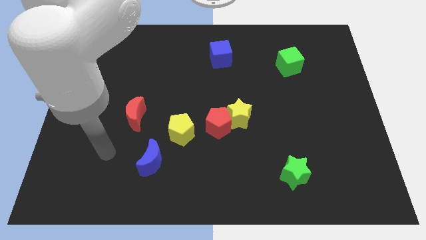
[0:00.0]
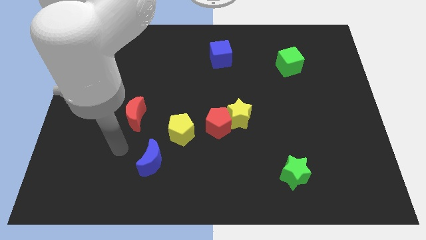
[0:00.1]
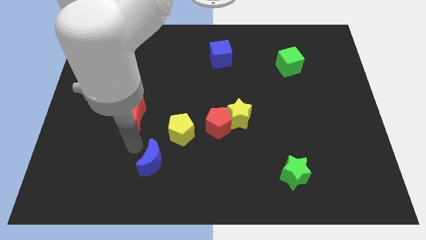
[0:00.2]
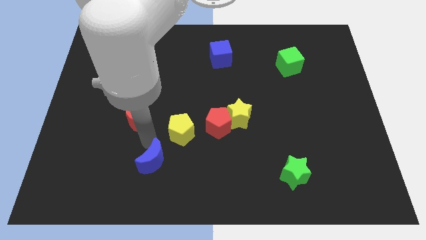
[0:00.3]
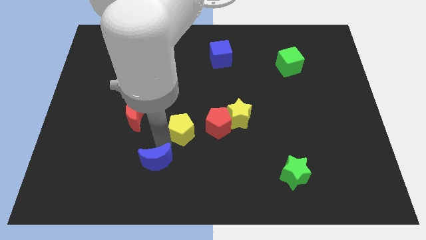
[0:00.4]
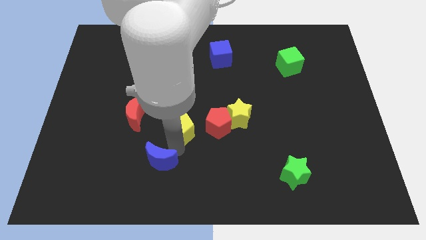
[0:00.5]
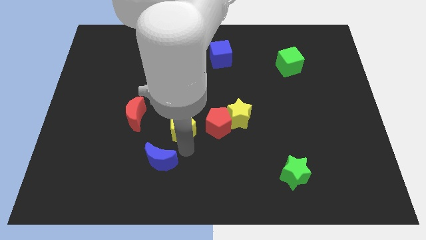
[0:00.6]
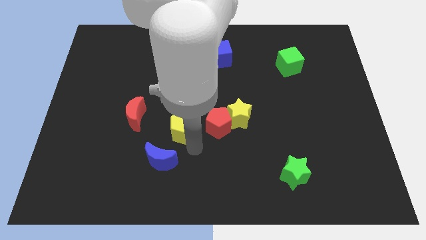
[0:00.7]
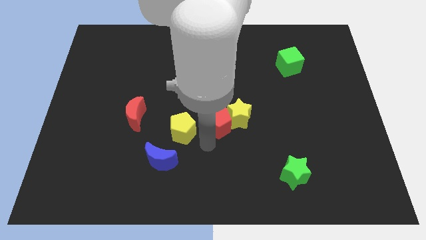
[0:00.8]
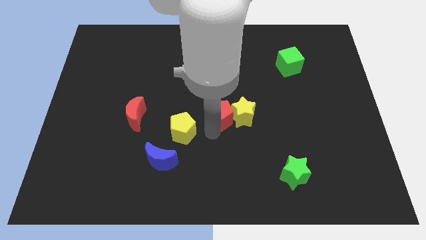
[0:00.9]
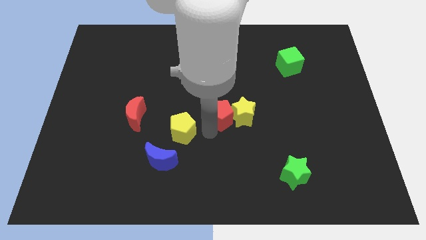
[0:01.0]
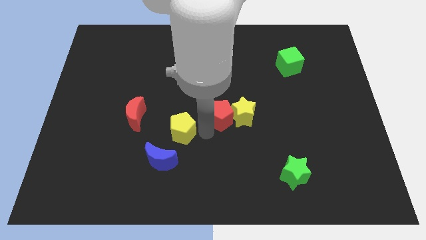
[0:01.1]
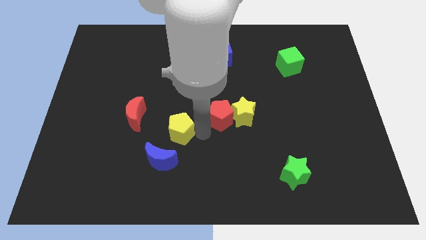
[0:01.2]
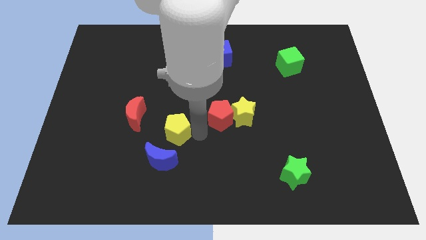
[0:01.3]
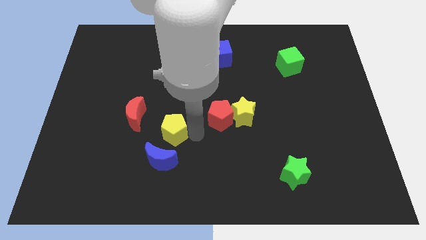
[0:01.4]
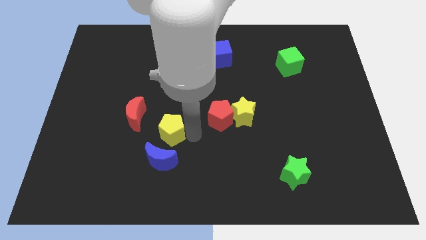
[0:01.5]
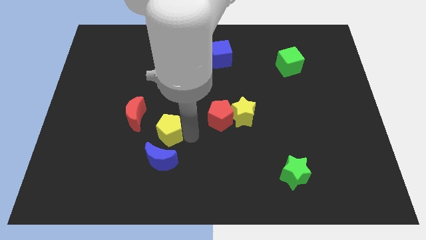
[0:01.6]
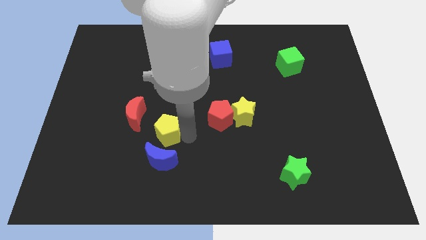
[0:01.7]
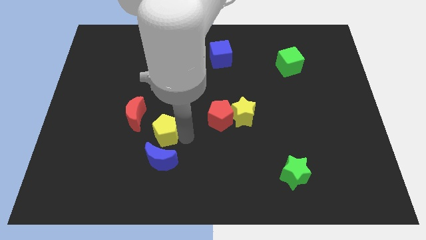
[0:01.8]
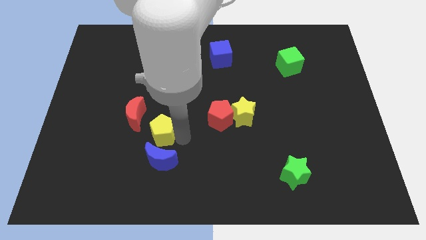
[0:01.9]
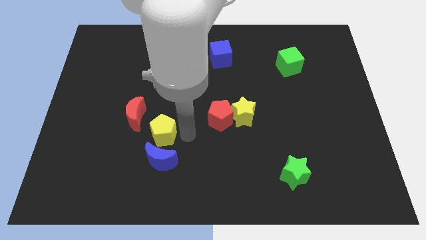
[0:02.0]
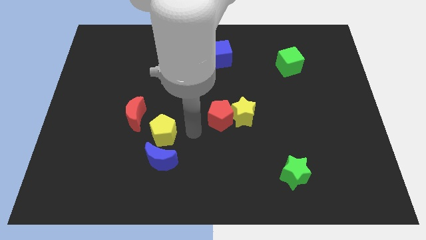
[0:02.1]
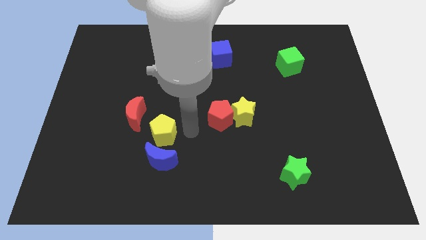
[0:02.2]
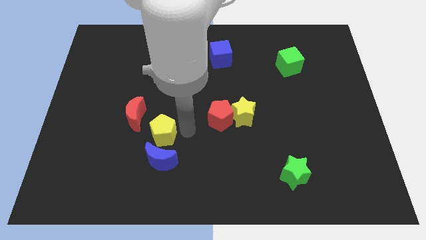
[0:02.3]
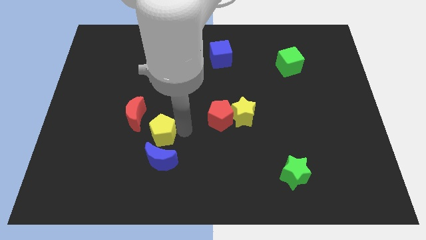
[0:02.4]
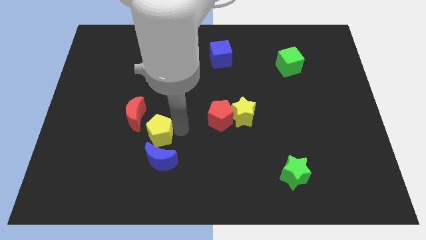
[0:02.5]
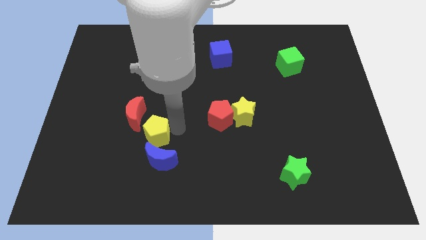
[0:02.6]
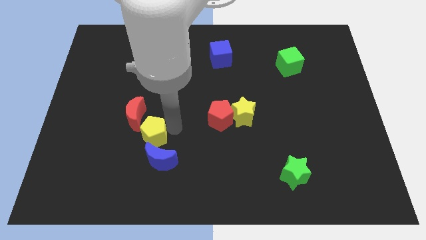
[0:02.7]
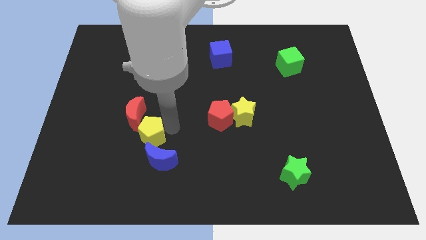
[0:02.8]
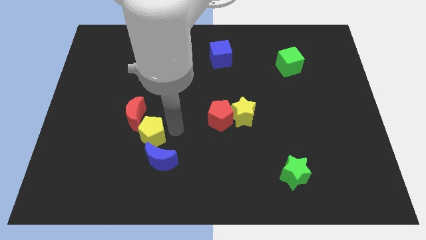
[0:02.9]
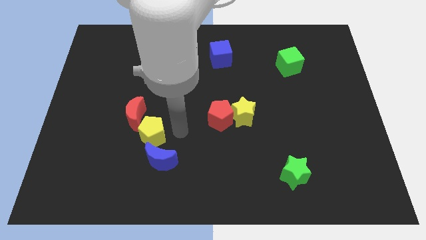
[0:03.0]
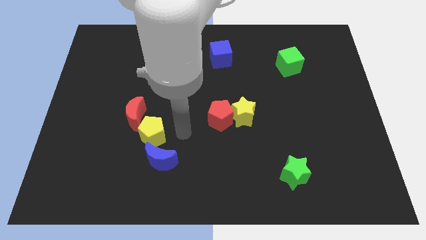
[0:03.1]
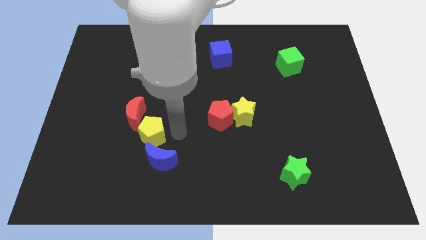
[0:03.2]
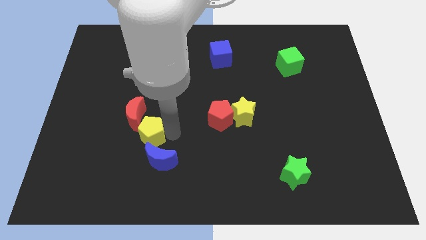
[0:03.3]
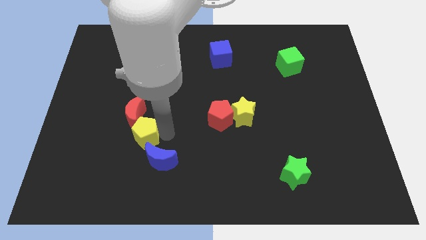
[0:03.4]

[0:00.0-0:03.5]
slightly move the yellow pentagon to the left

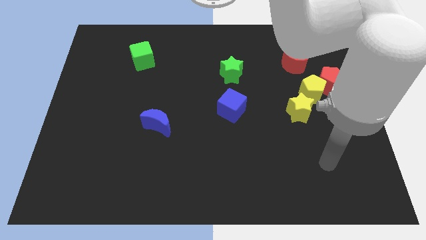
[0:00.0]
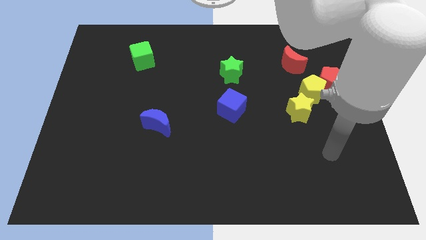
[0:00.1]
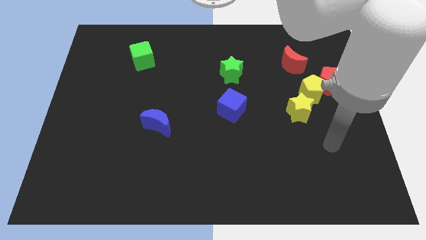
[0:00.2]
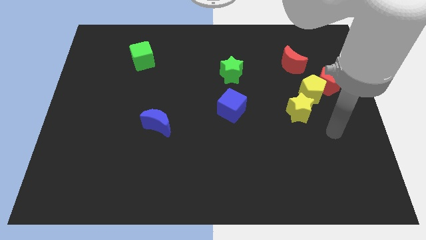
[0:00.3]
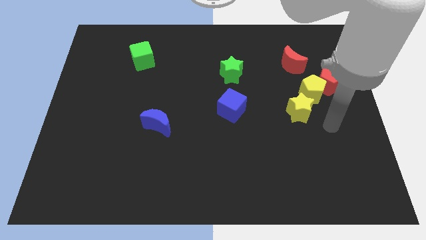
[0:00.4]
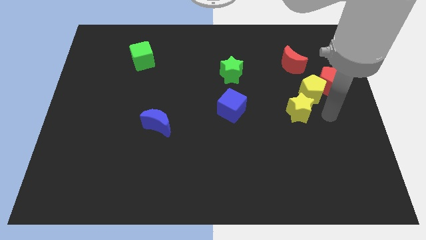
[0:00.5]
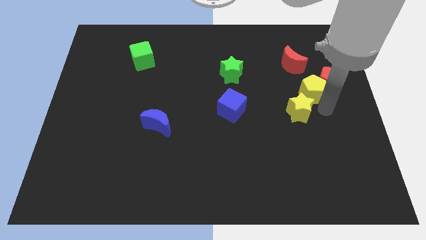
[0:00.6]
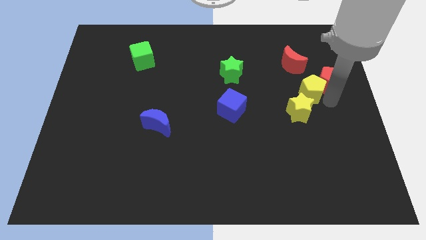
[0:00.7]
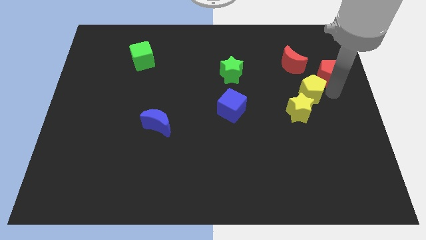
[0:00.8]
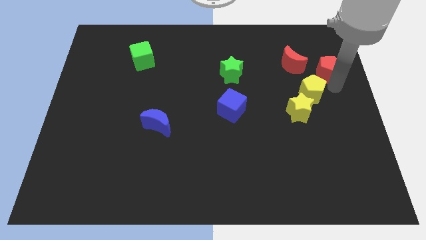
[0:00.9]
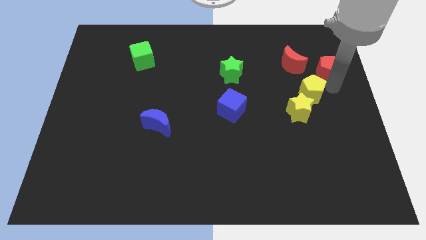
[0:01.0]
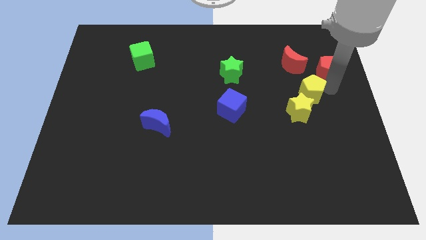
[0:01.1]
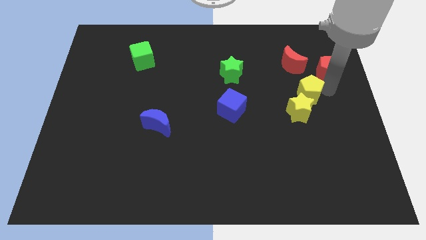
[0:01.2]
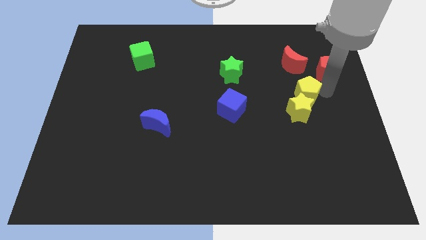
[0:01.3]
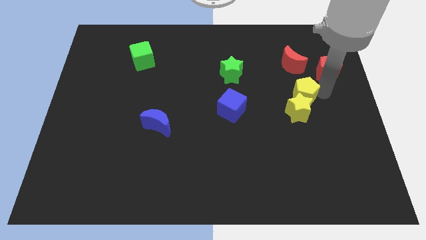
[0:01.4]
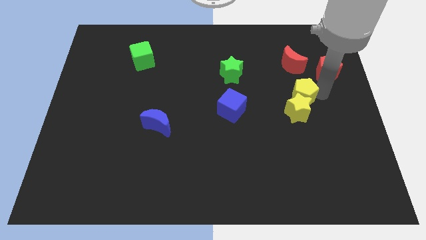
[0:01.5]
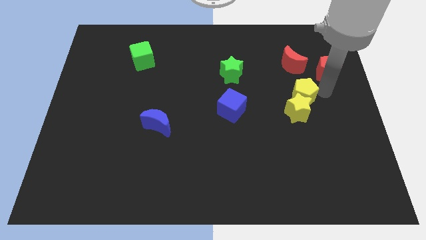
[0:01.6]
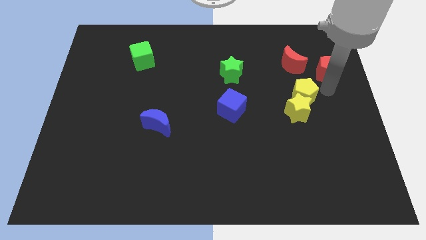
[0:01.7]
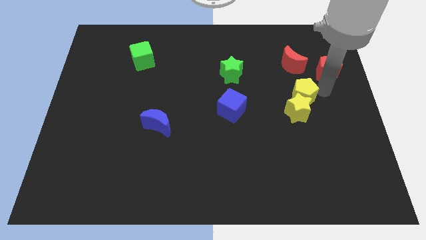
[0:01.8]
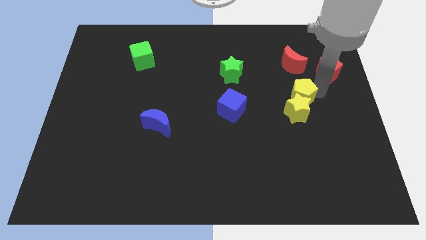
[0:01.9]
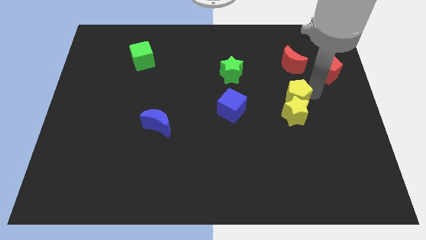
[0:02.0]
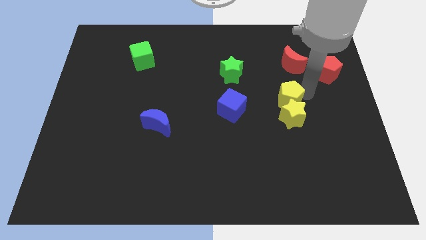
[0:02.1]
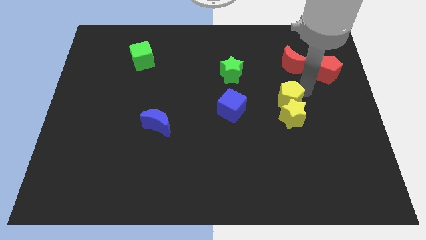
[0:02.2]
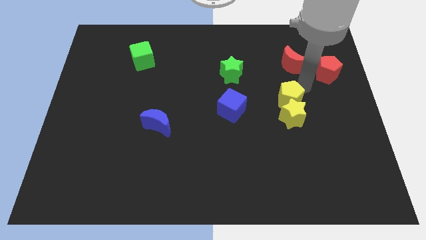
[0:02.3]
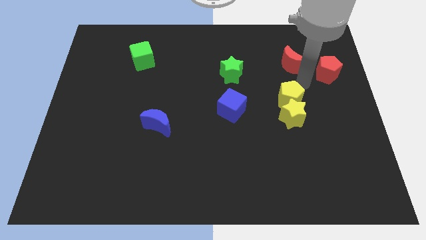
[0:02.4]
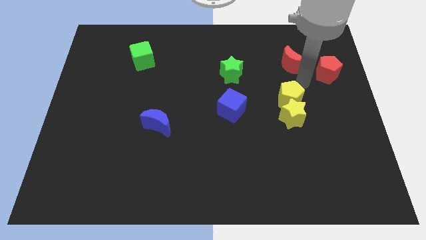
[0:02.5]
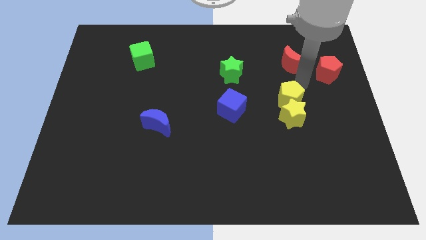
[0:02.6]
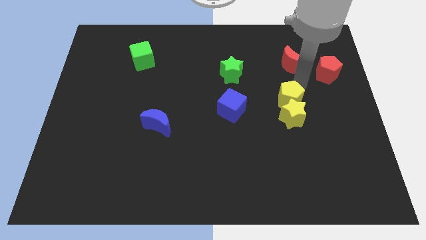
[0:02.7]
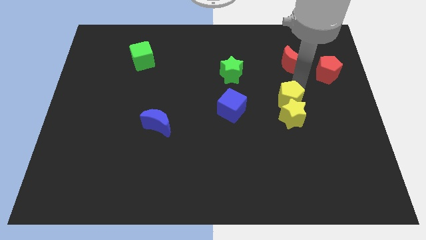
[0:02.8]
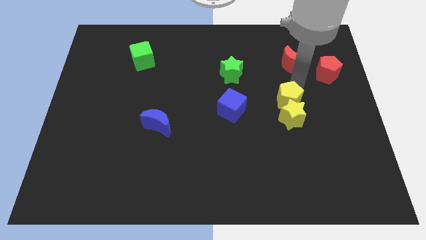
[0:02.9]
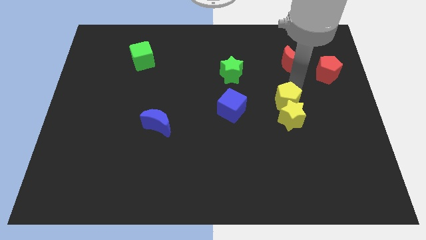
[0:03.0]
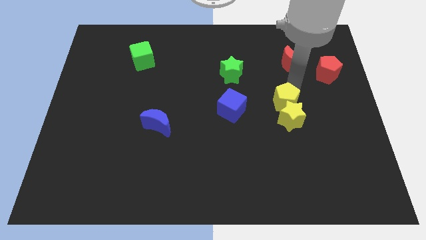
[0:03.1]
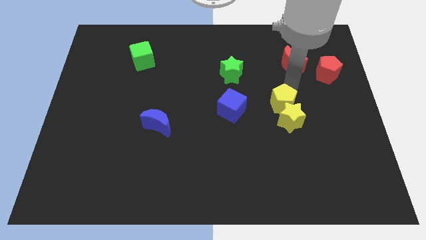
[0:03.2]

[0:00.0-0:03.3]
push the yellow pentagon downwards and left diagonally slightly

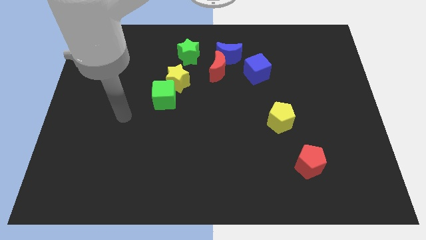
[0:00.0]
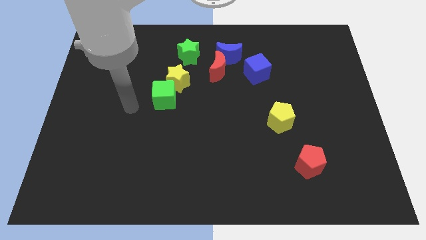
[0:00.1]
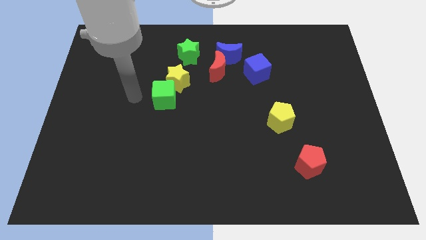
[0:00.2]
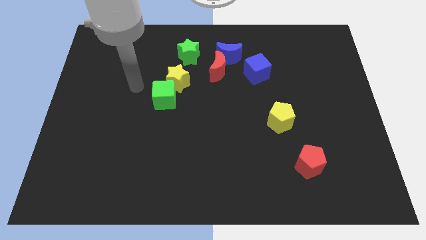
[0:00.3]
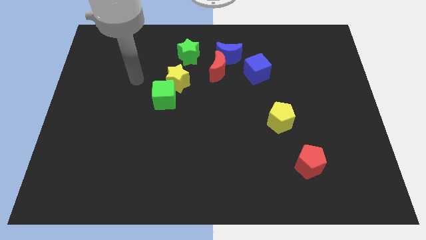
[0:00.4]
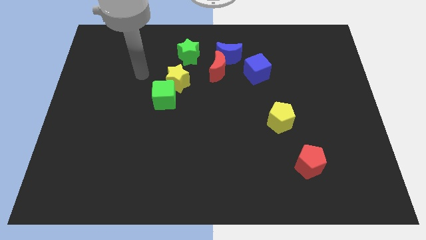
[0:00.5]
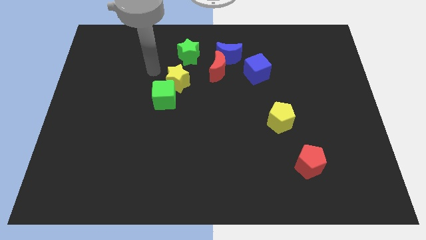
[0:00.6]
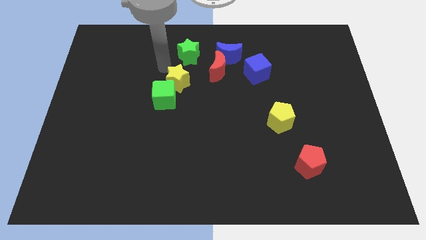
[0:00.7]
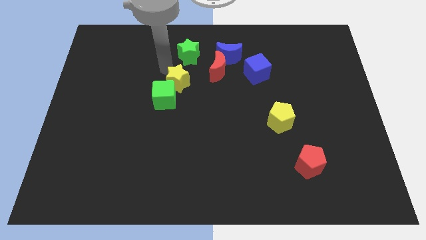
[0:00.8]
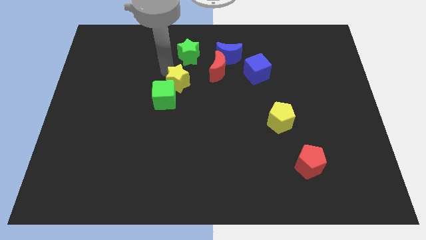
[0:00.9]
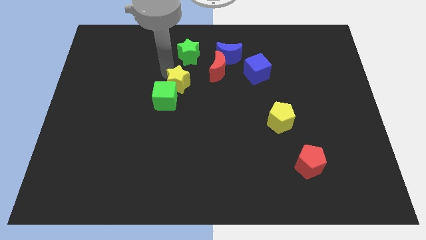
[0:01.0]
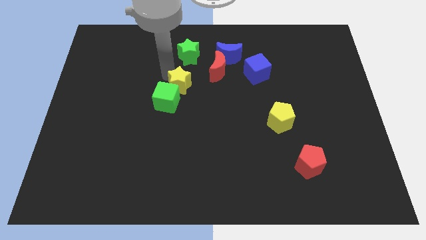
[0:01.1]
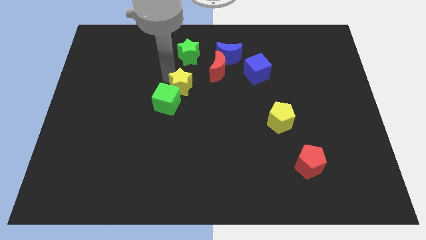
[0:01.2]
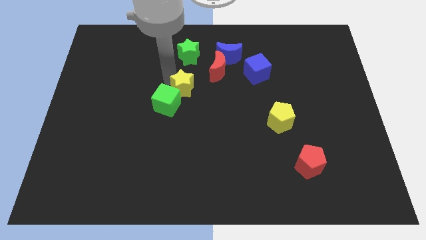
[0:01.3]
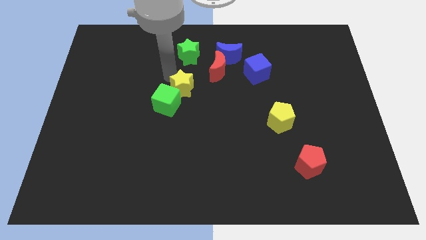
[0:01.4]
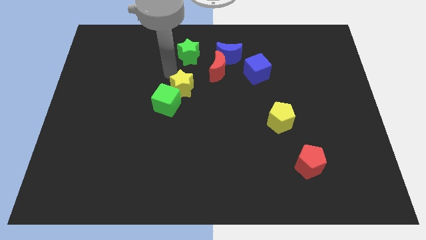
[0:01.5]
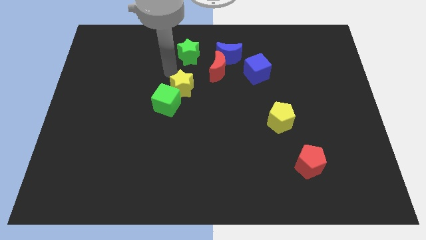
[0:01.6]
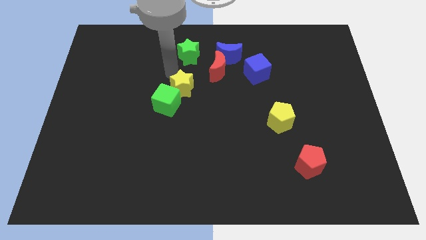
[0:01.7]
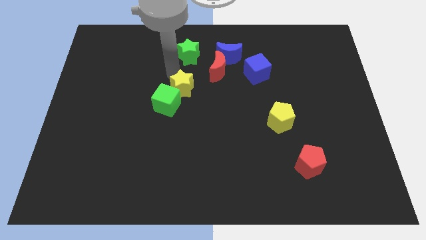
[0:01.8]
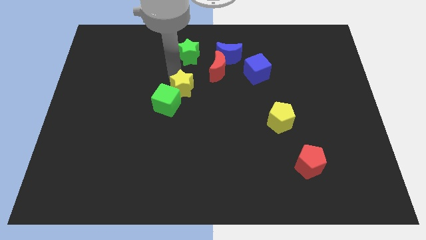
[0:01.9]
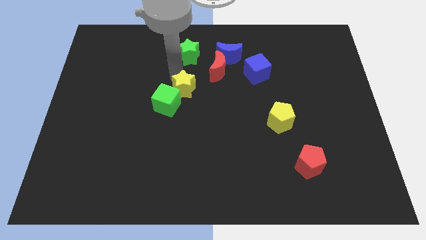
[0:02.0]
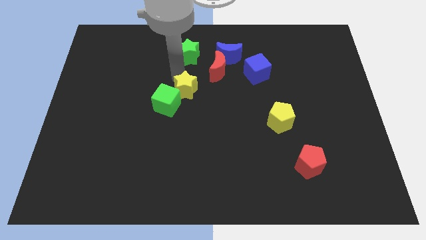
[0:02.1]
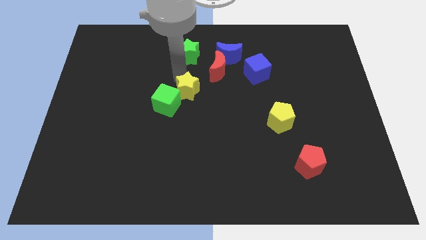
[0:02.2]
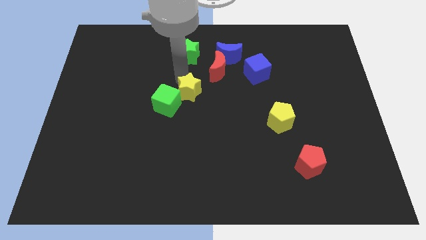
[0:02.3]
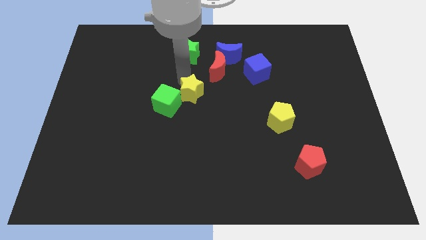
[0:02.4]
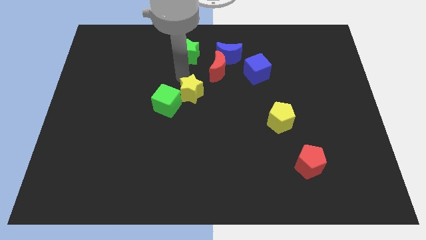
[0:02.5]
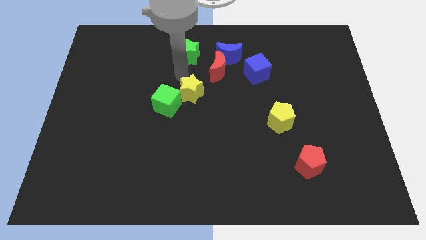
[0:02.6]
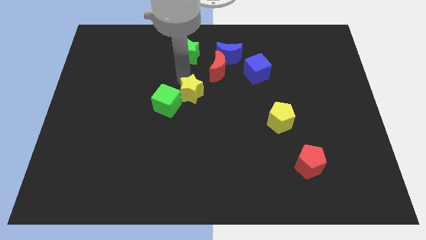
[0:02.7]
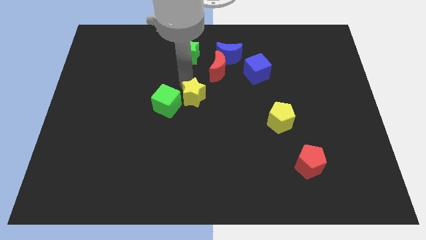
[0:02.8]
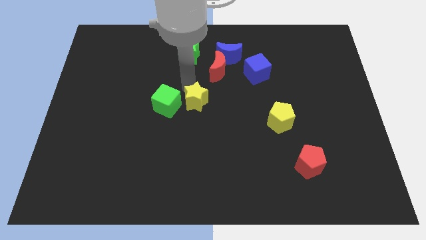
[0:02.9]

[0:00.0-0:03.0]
slide the yellow star a little bit diagonally downwards and to the right
